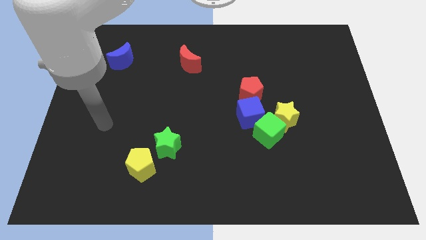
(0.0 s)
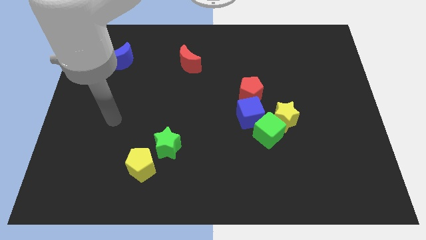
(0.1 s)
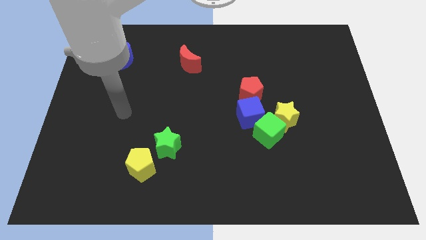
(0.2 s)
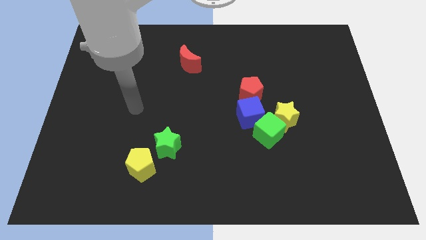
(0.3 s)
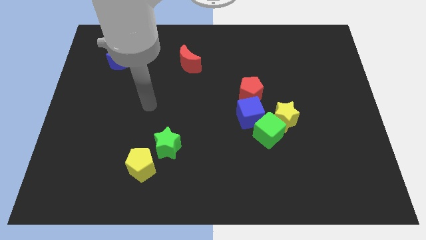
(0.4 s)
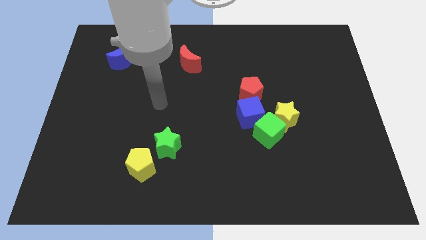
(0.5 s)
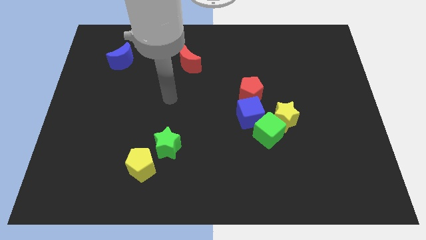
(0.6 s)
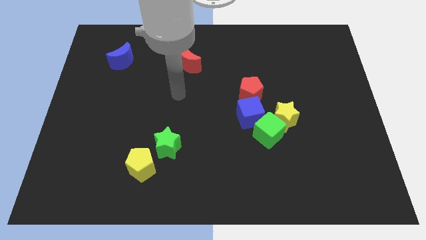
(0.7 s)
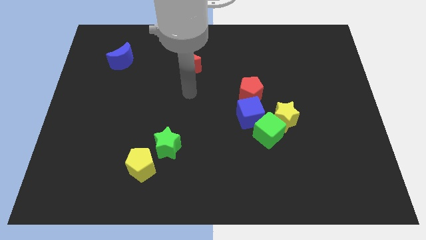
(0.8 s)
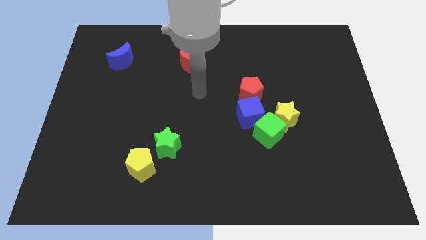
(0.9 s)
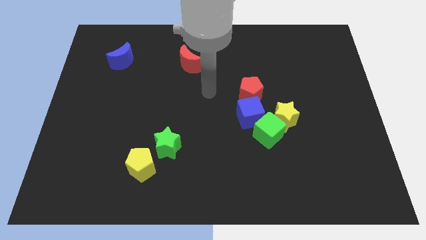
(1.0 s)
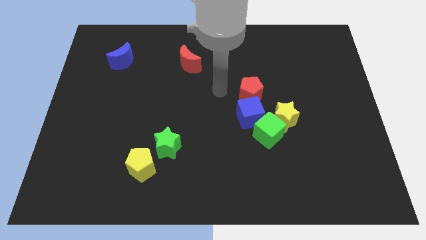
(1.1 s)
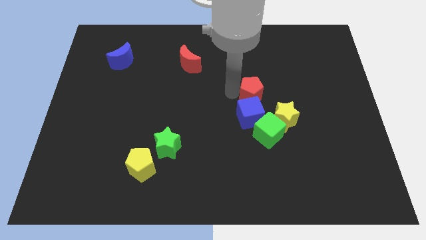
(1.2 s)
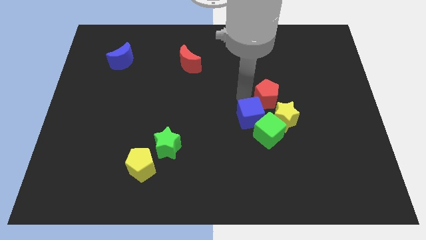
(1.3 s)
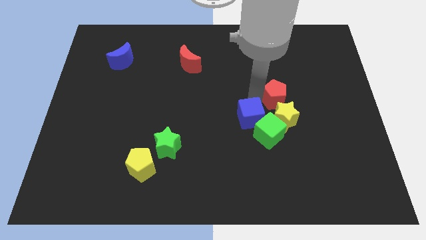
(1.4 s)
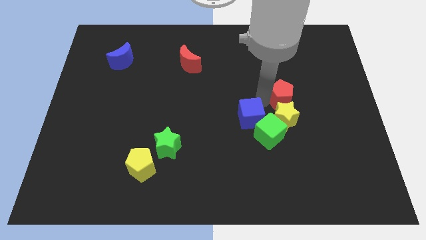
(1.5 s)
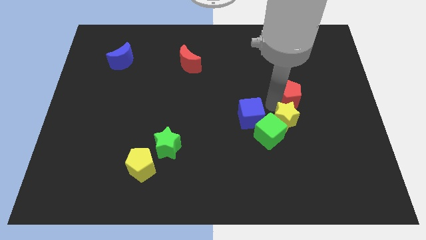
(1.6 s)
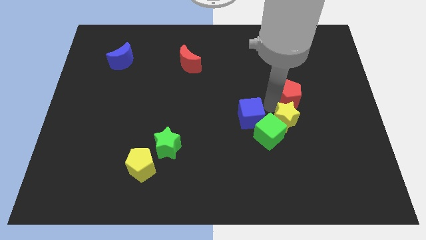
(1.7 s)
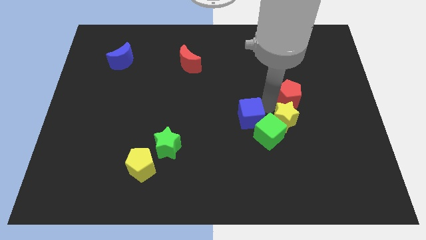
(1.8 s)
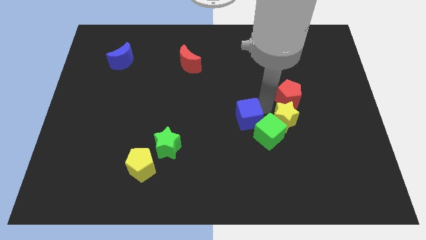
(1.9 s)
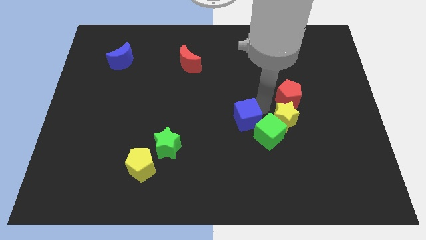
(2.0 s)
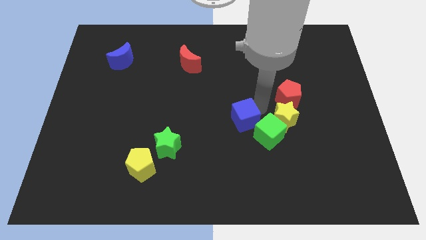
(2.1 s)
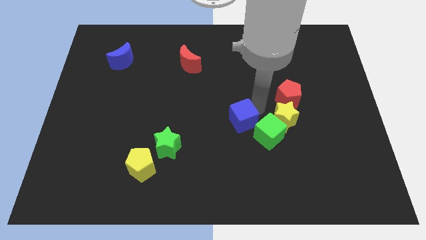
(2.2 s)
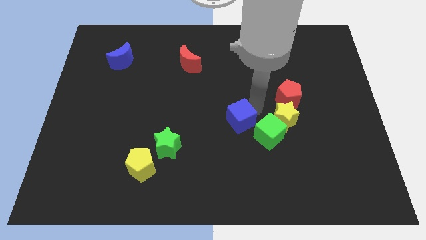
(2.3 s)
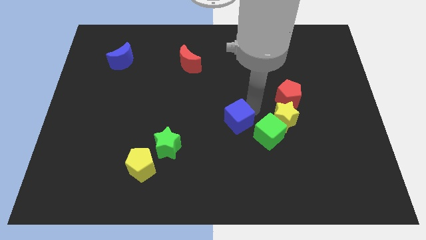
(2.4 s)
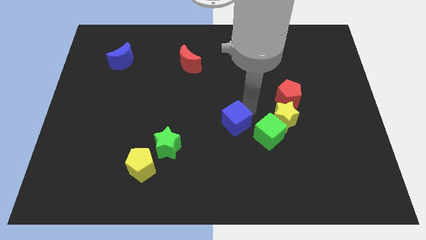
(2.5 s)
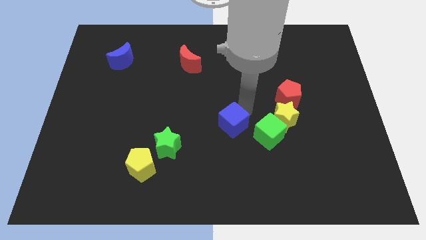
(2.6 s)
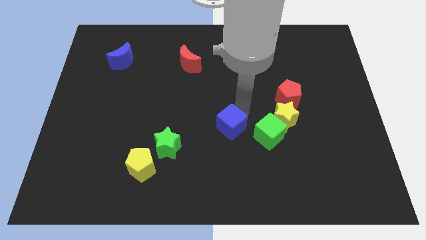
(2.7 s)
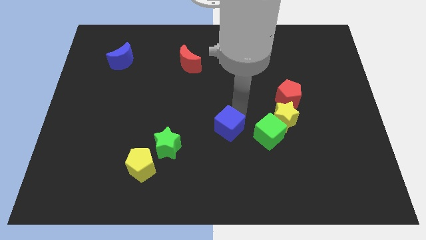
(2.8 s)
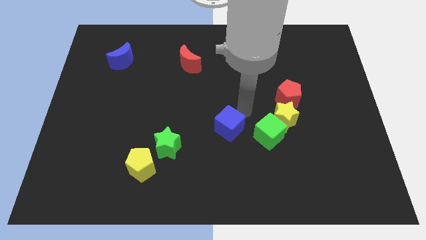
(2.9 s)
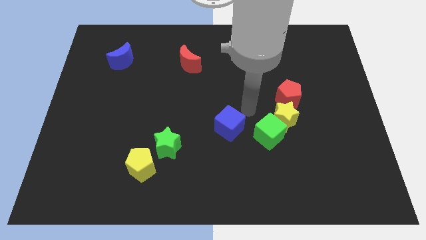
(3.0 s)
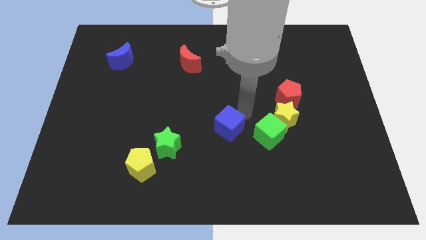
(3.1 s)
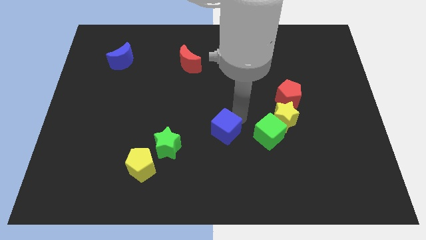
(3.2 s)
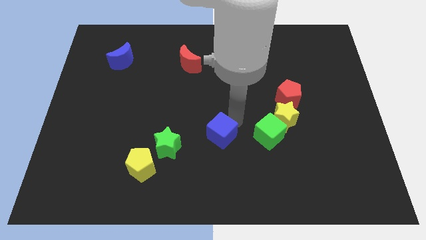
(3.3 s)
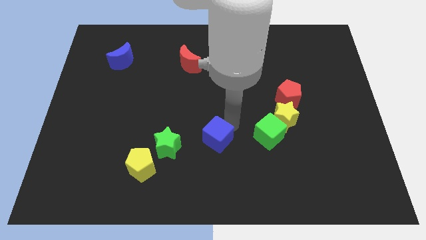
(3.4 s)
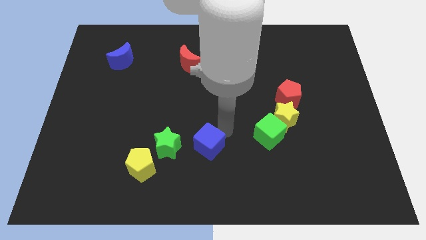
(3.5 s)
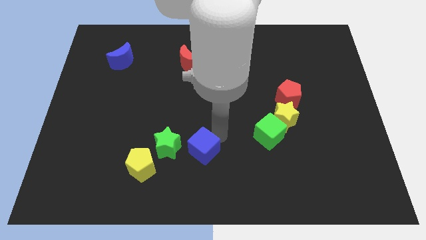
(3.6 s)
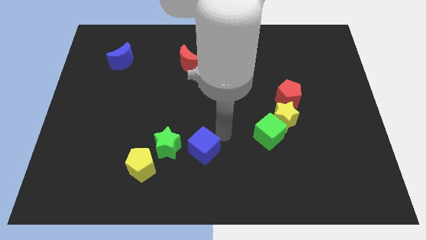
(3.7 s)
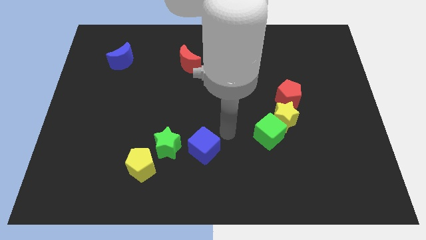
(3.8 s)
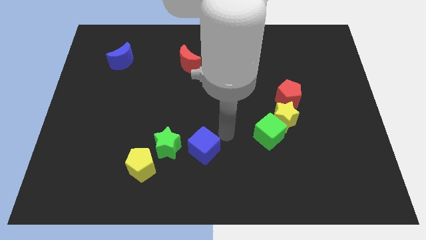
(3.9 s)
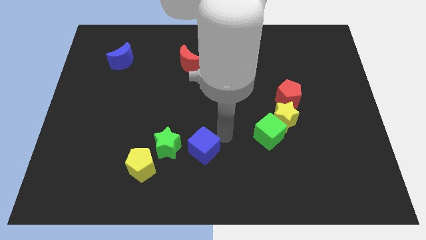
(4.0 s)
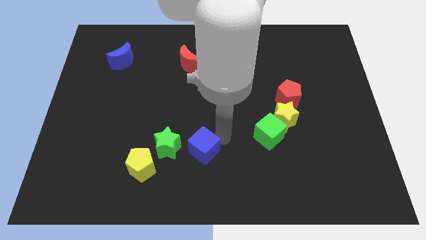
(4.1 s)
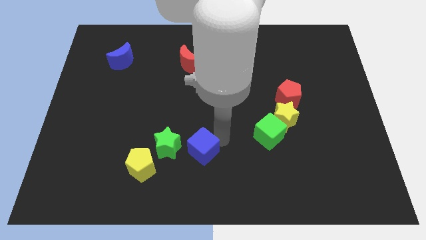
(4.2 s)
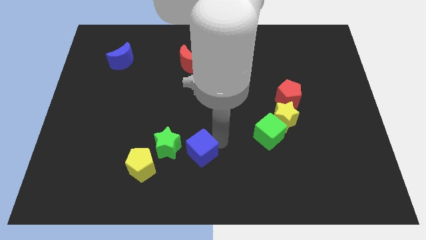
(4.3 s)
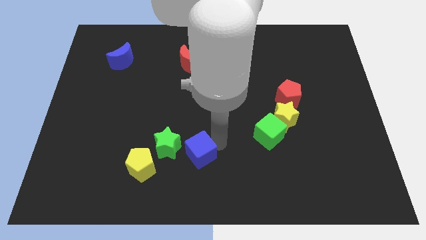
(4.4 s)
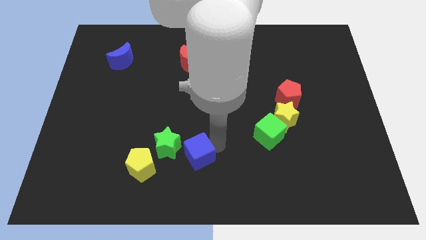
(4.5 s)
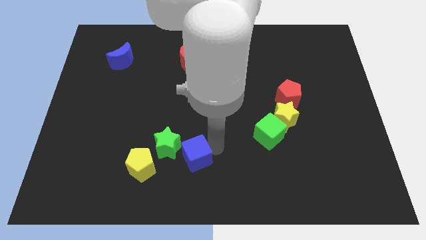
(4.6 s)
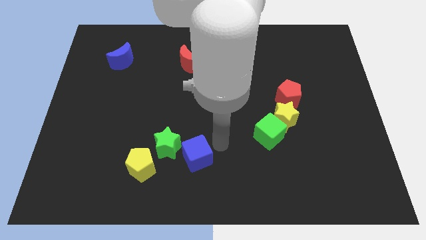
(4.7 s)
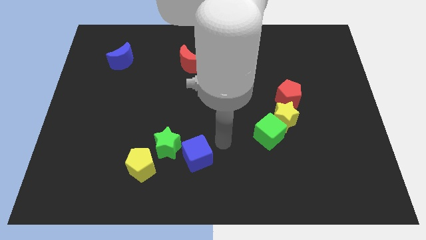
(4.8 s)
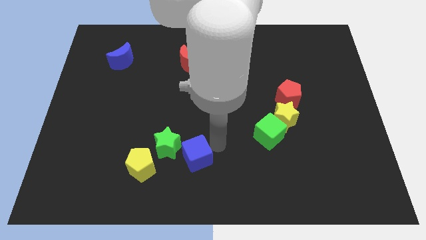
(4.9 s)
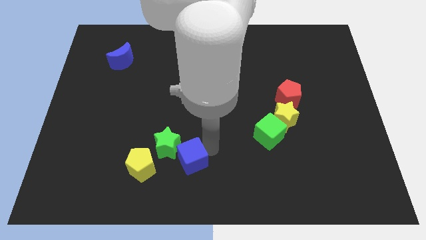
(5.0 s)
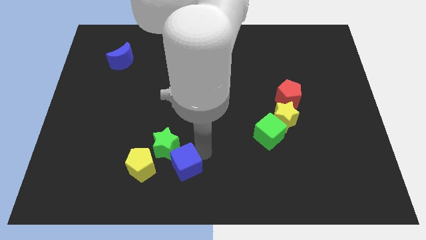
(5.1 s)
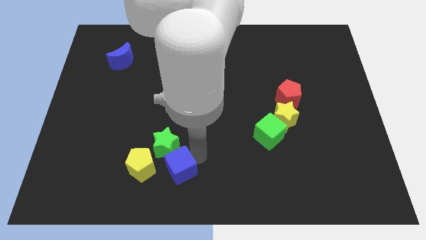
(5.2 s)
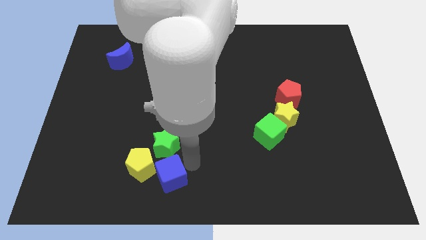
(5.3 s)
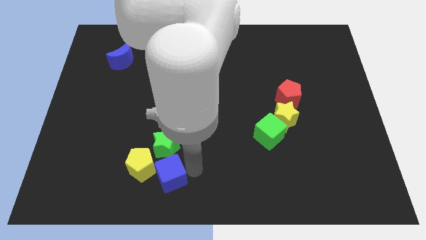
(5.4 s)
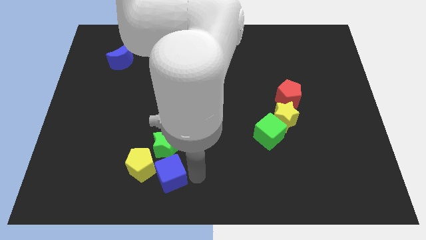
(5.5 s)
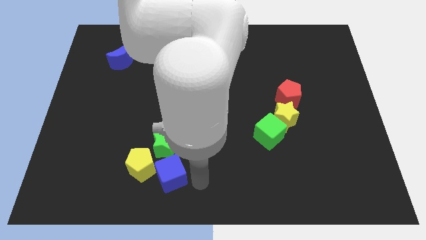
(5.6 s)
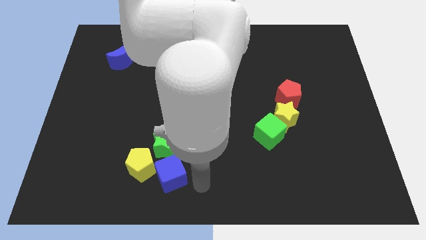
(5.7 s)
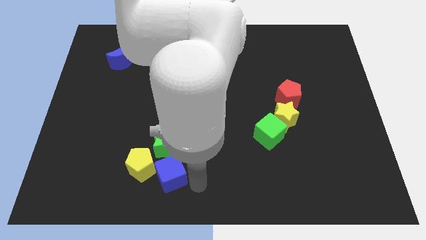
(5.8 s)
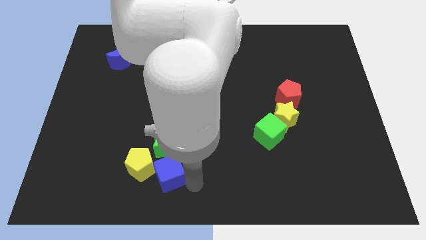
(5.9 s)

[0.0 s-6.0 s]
slide the blue cube towards the yellow pentagon

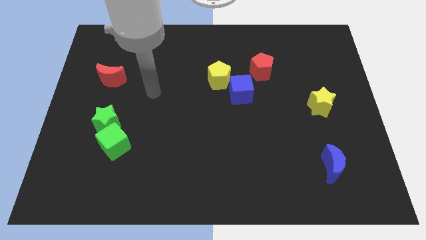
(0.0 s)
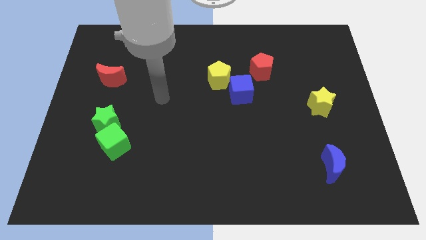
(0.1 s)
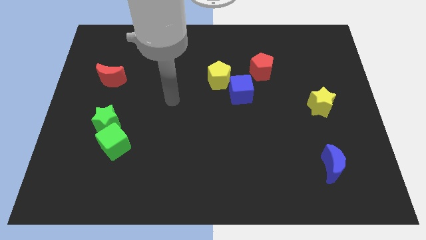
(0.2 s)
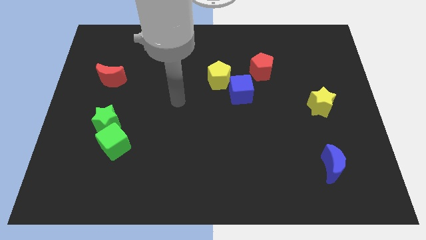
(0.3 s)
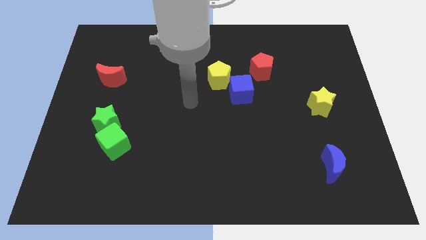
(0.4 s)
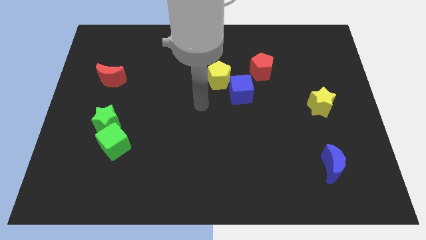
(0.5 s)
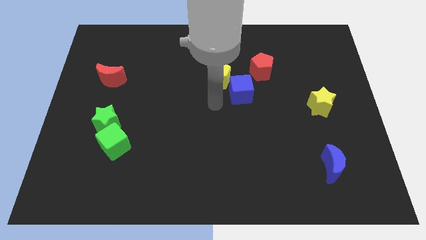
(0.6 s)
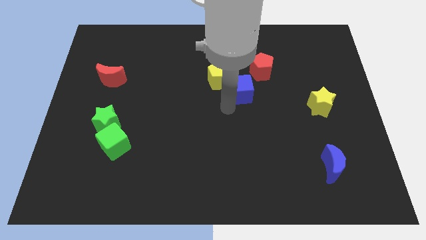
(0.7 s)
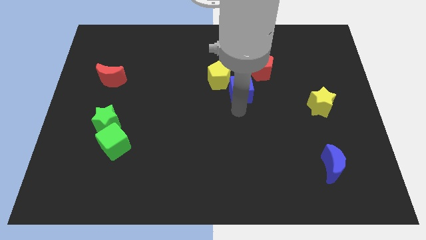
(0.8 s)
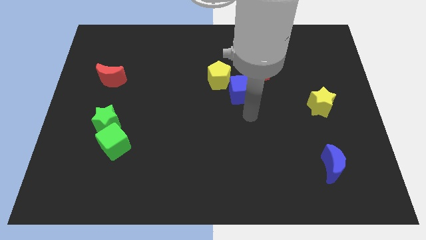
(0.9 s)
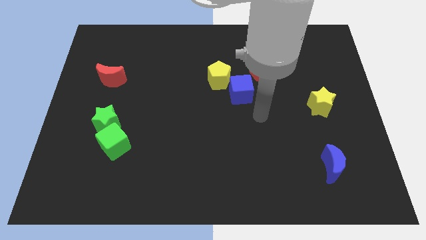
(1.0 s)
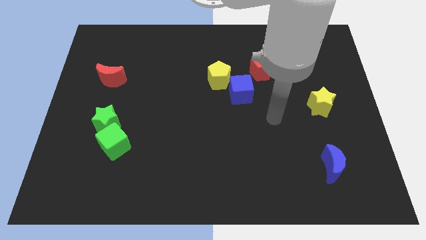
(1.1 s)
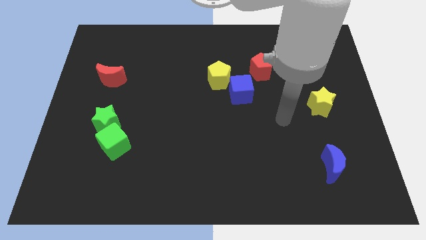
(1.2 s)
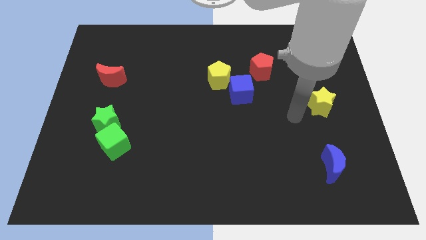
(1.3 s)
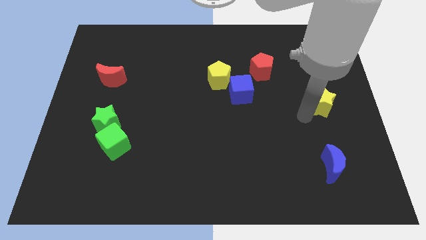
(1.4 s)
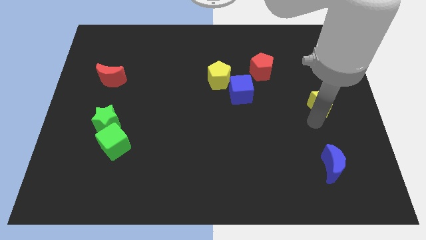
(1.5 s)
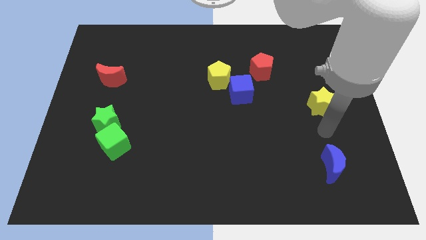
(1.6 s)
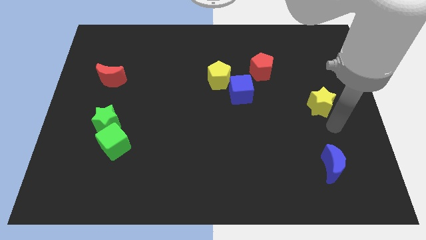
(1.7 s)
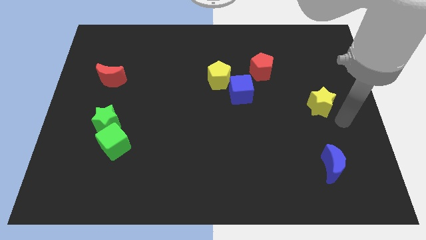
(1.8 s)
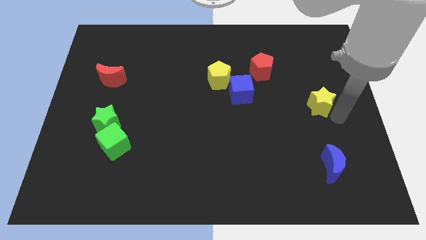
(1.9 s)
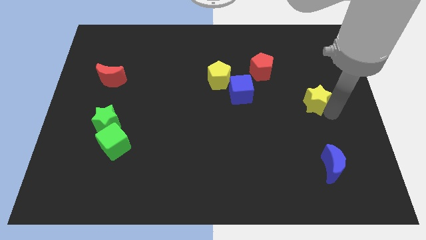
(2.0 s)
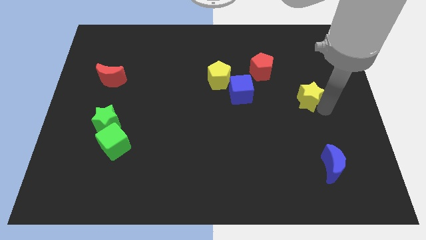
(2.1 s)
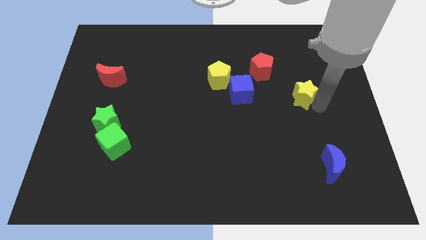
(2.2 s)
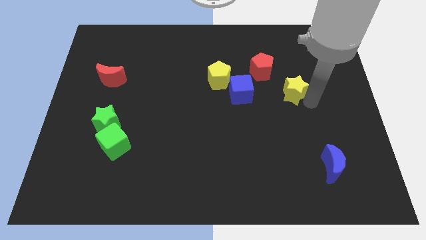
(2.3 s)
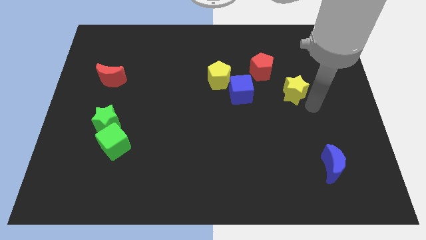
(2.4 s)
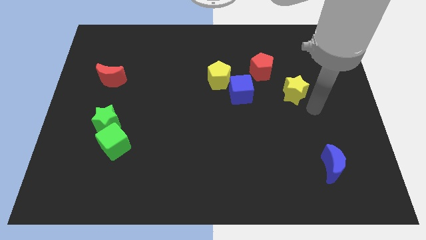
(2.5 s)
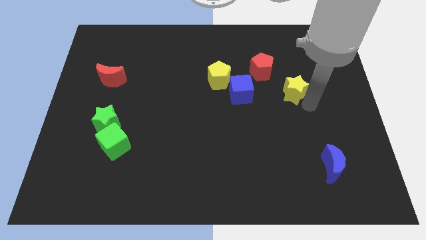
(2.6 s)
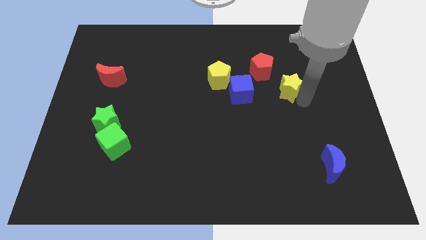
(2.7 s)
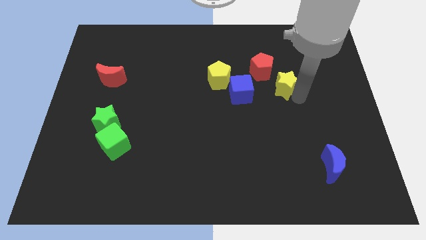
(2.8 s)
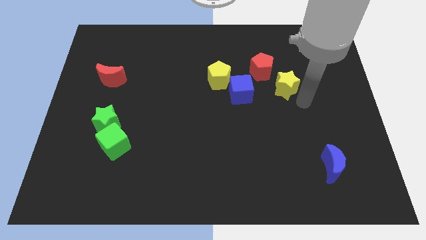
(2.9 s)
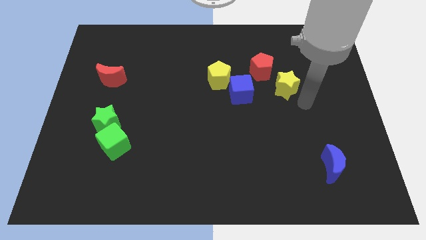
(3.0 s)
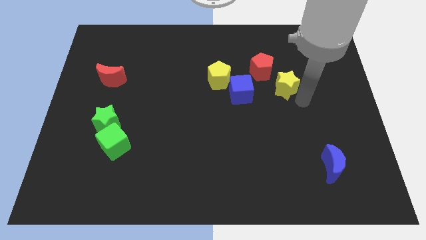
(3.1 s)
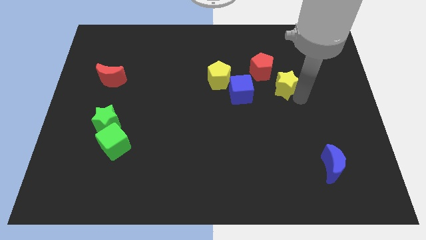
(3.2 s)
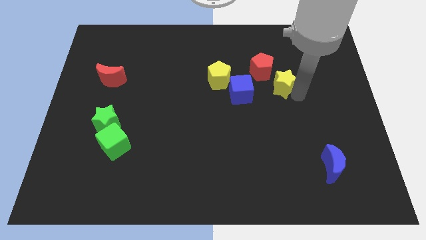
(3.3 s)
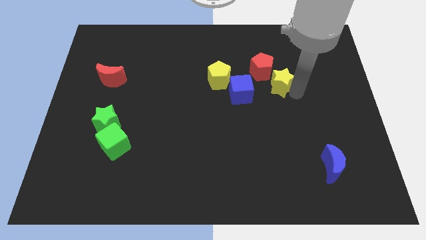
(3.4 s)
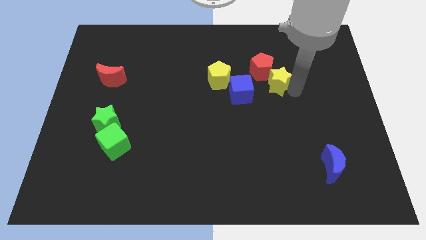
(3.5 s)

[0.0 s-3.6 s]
move the yellow star towards the red pentagon
